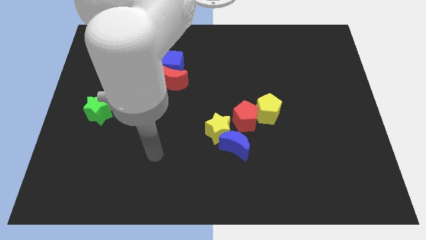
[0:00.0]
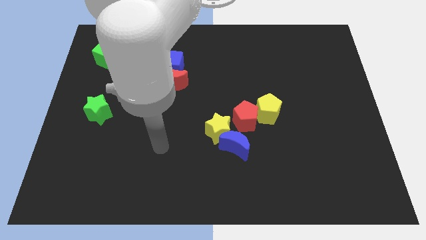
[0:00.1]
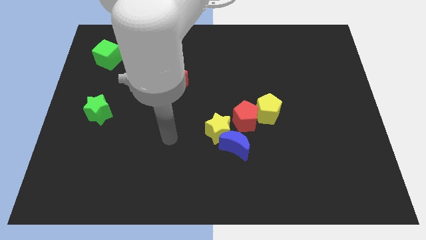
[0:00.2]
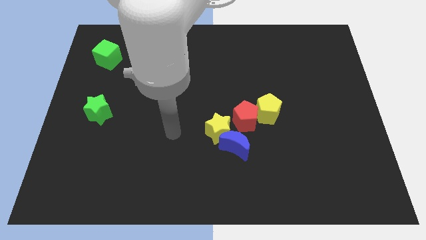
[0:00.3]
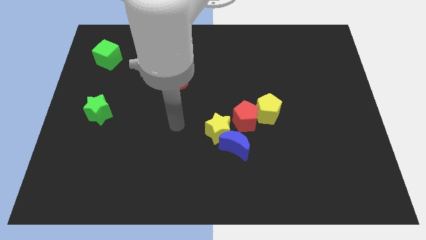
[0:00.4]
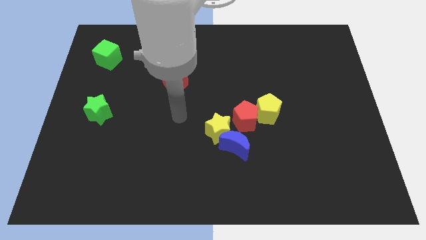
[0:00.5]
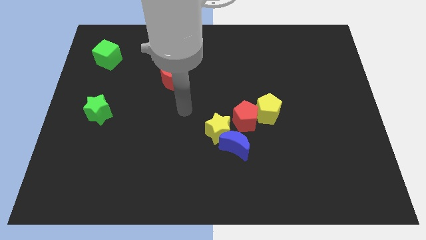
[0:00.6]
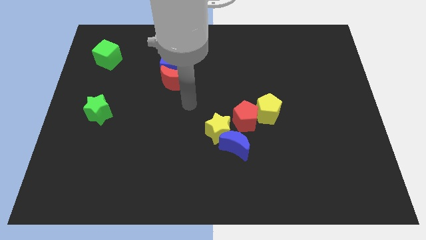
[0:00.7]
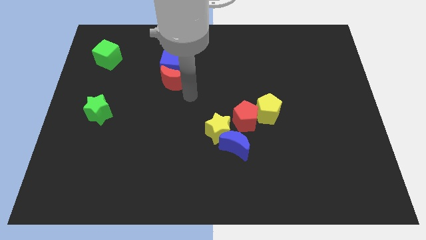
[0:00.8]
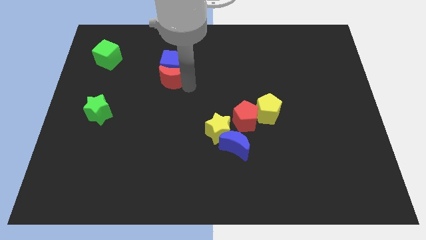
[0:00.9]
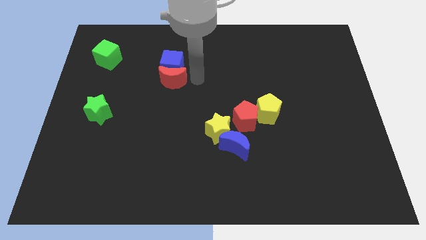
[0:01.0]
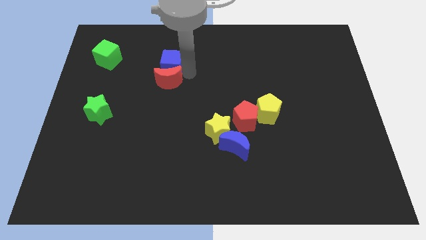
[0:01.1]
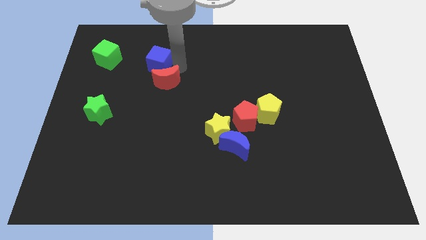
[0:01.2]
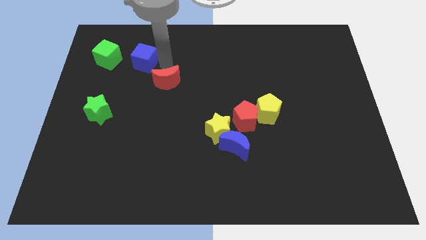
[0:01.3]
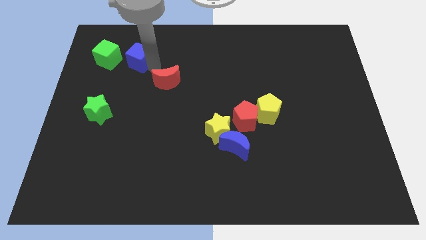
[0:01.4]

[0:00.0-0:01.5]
move the red moon away from the blue cube

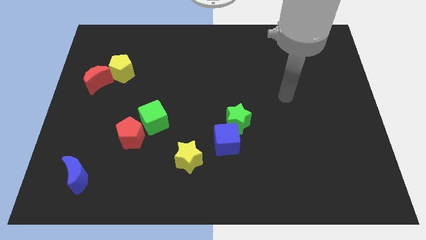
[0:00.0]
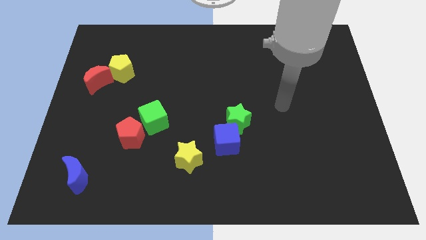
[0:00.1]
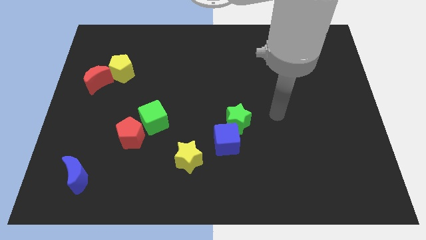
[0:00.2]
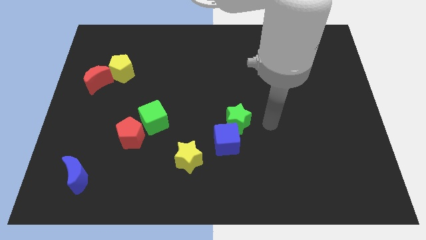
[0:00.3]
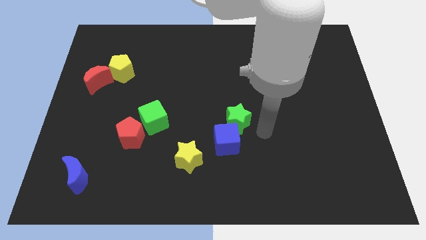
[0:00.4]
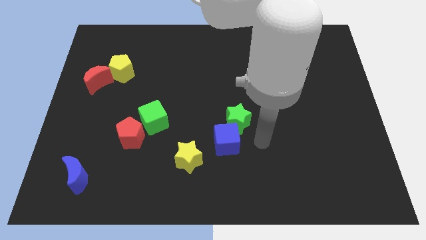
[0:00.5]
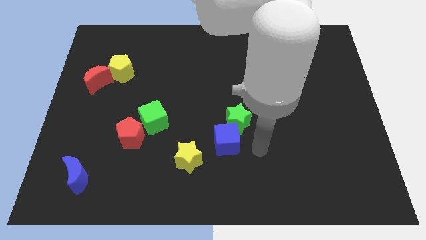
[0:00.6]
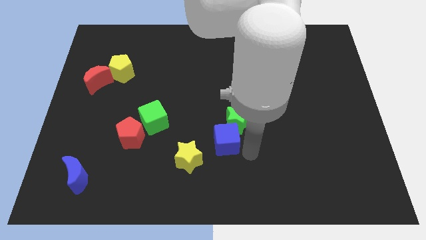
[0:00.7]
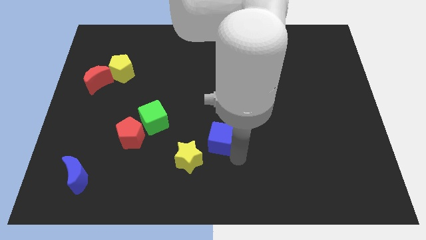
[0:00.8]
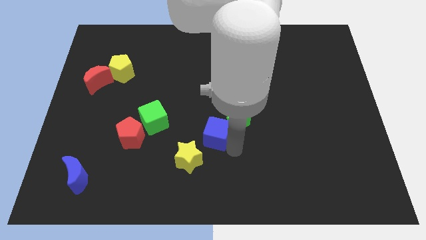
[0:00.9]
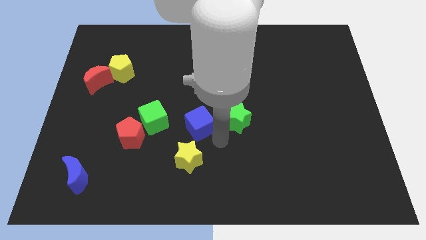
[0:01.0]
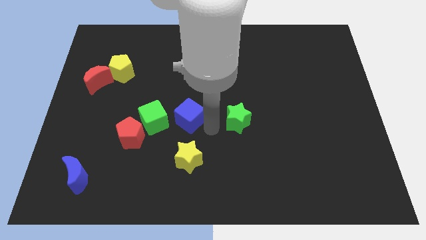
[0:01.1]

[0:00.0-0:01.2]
move the green star away from the blue cube

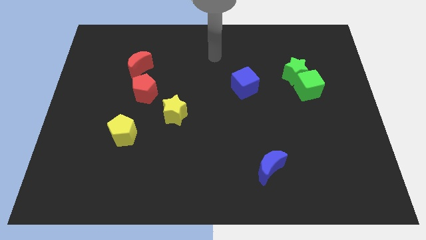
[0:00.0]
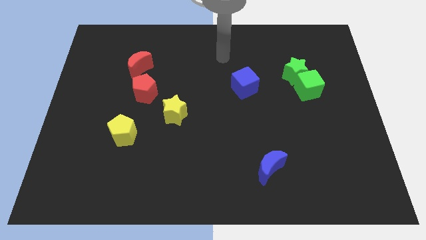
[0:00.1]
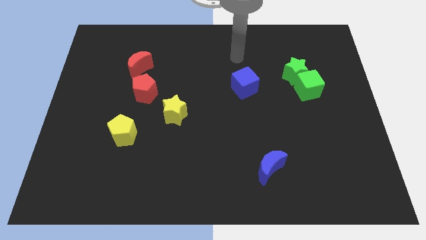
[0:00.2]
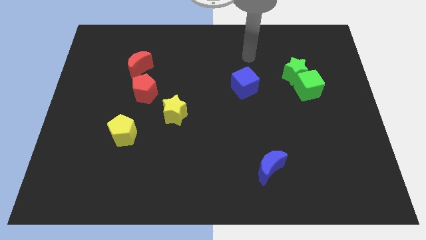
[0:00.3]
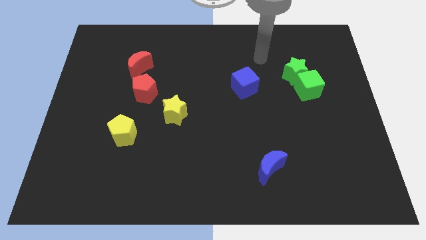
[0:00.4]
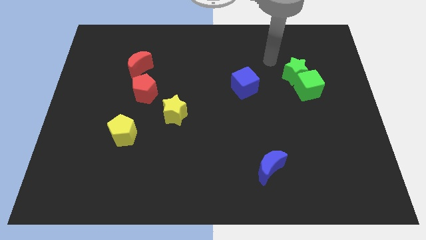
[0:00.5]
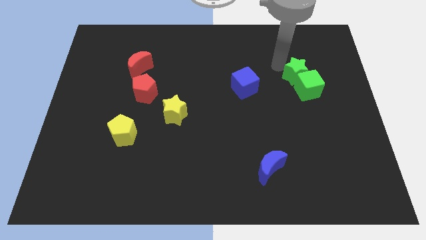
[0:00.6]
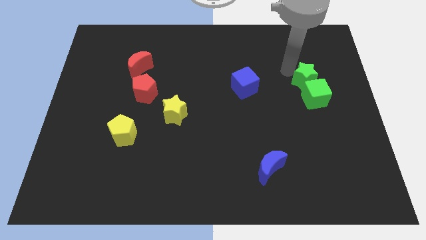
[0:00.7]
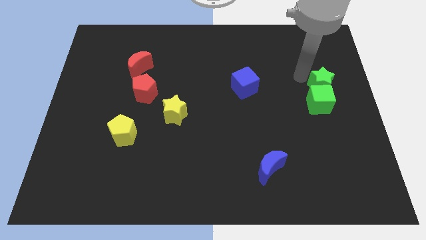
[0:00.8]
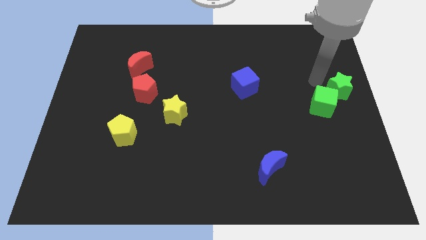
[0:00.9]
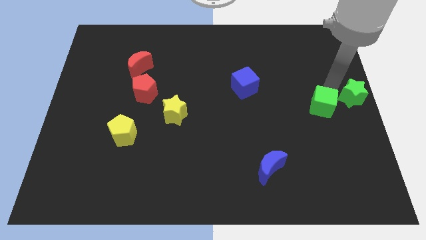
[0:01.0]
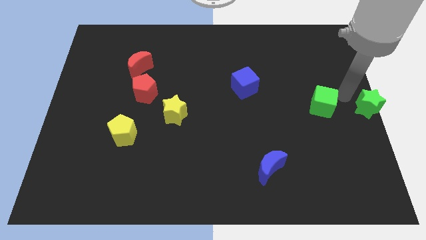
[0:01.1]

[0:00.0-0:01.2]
pull the green cube apart from the green star

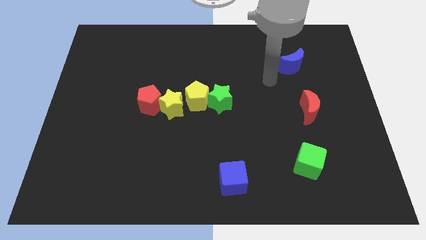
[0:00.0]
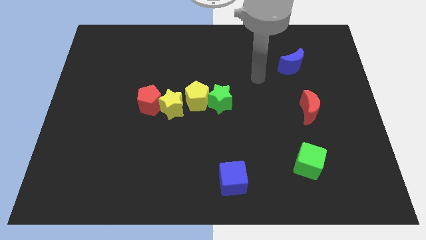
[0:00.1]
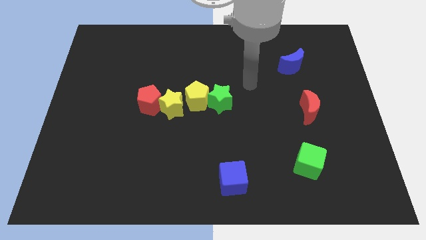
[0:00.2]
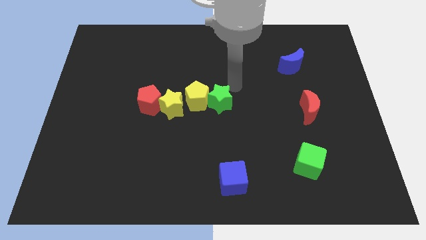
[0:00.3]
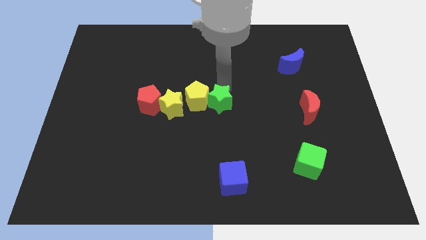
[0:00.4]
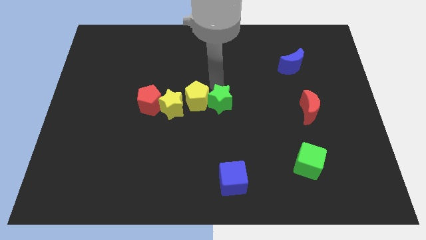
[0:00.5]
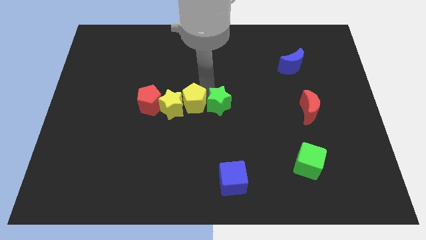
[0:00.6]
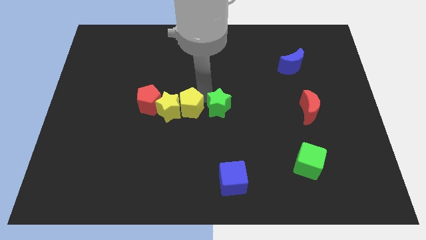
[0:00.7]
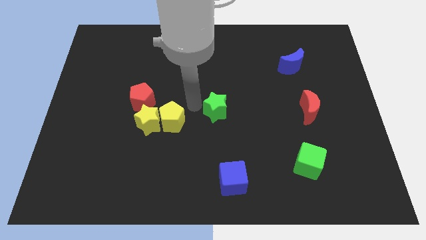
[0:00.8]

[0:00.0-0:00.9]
pull the green star apart from the yellow pentagon

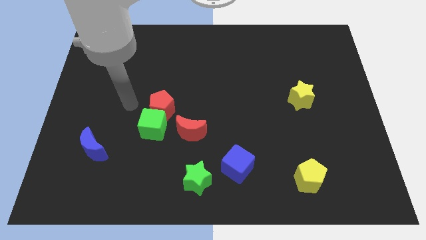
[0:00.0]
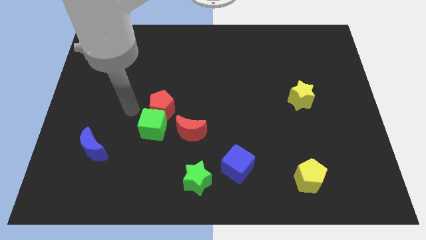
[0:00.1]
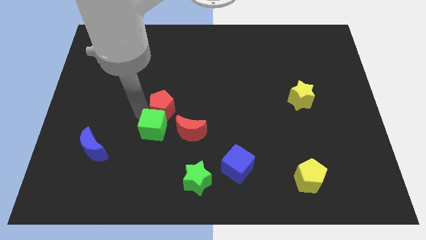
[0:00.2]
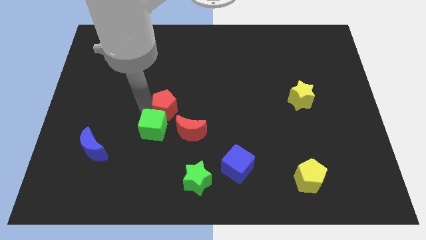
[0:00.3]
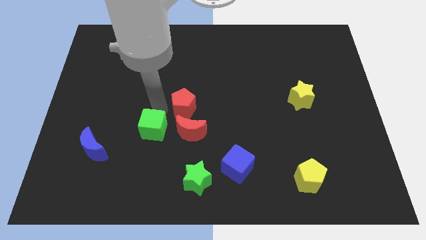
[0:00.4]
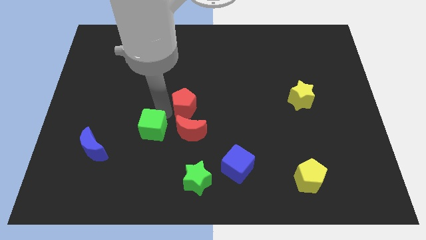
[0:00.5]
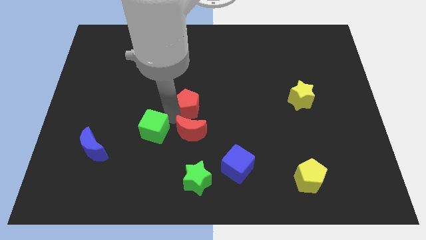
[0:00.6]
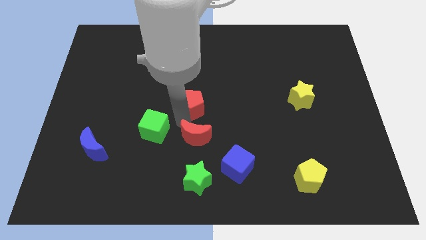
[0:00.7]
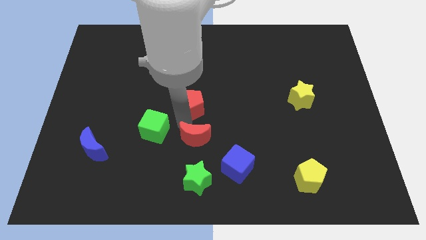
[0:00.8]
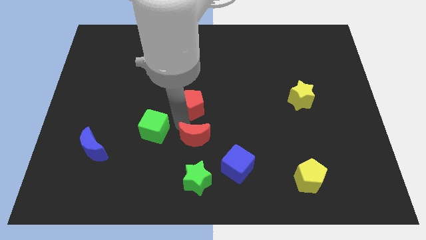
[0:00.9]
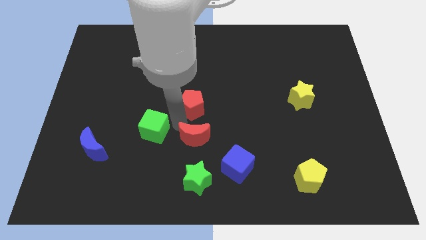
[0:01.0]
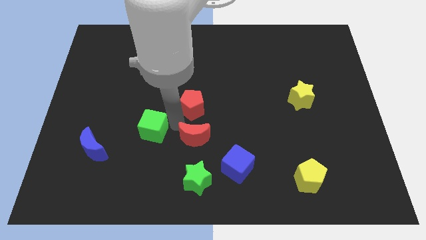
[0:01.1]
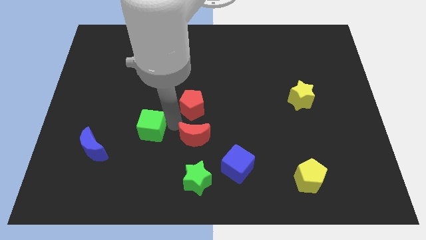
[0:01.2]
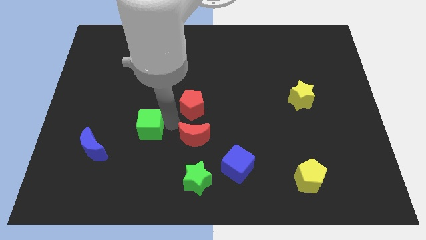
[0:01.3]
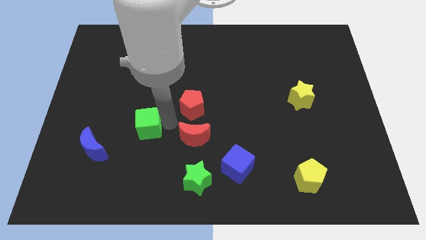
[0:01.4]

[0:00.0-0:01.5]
separate the green cube from the red pentagon and red moon

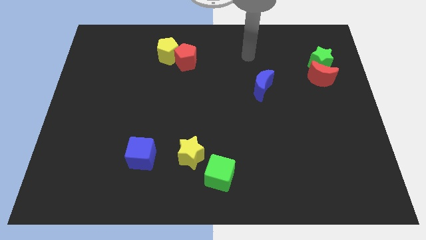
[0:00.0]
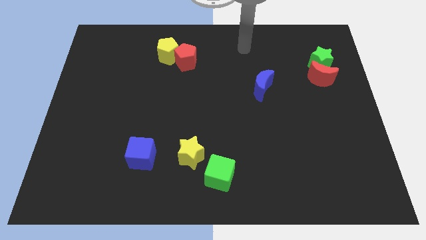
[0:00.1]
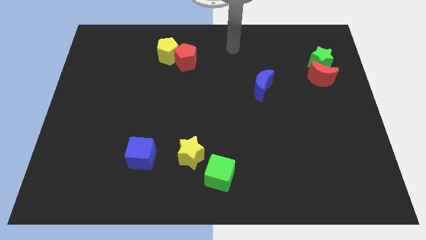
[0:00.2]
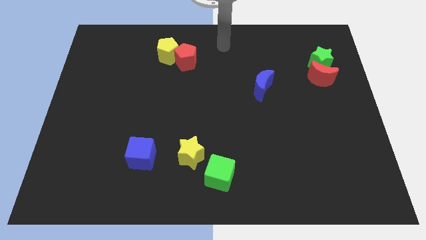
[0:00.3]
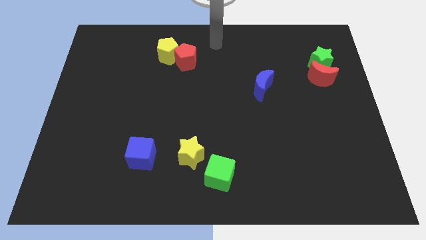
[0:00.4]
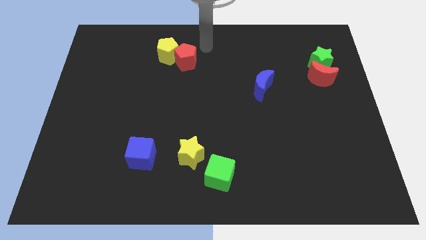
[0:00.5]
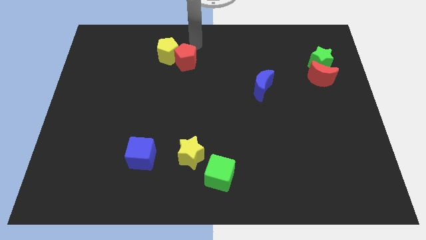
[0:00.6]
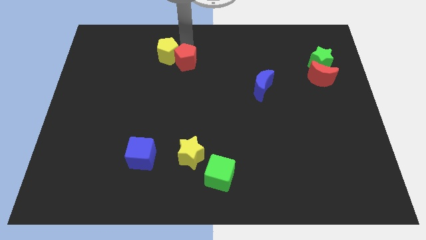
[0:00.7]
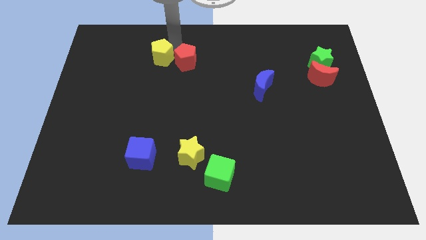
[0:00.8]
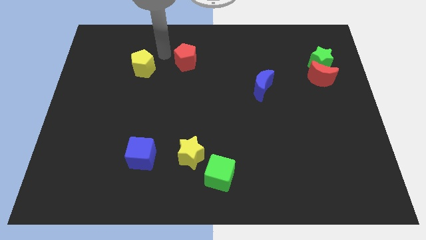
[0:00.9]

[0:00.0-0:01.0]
pull the red pentagon apart from the yellow pentagon

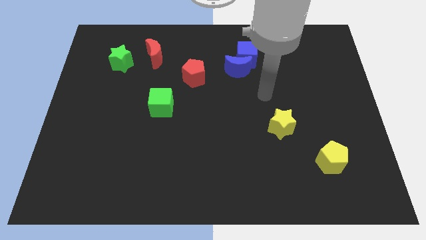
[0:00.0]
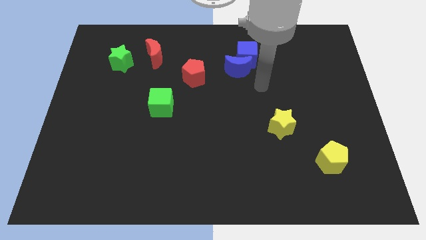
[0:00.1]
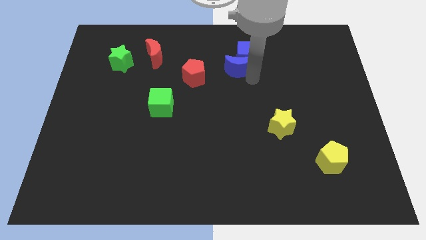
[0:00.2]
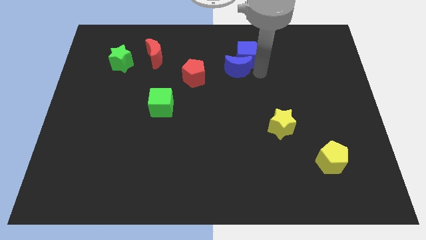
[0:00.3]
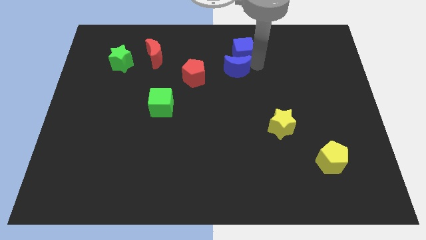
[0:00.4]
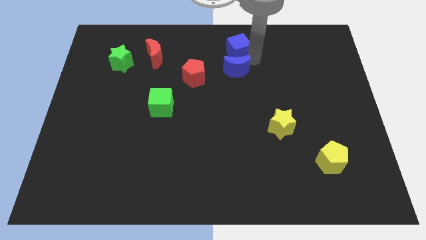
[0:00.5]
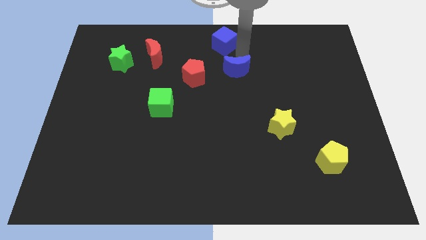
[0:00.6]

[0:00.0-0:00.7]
move the blue moon away from the blue cube

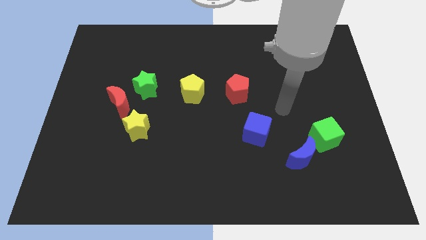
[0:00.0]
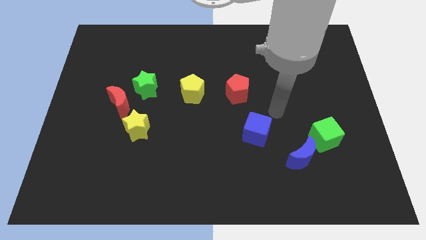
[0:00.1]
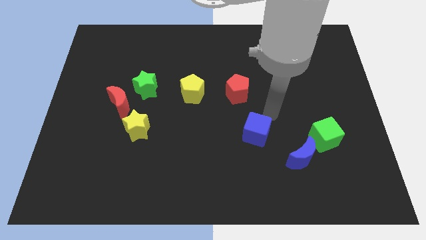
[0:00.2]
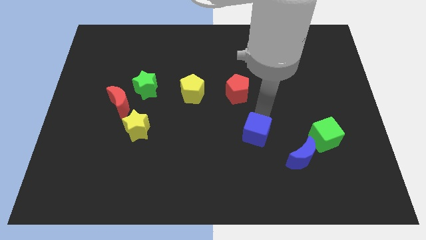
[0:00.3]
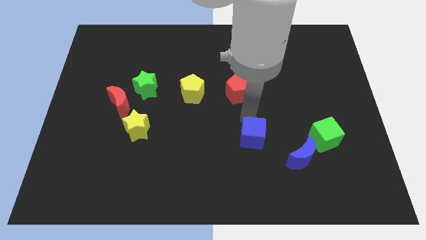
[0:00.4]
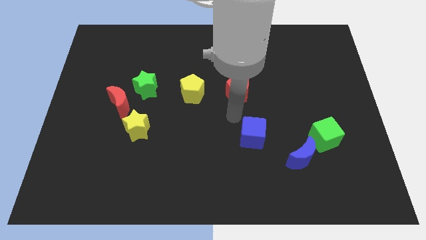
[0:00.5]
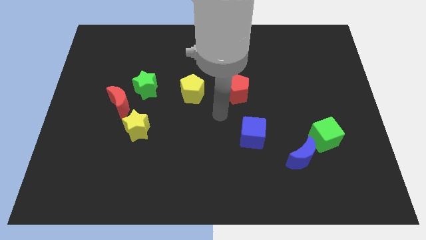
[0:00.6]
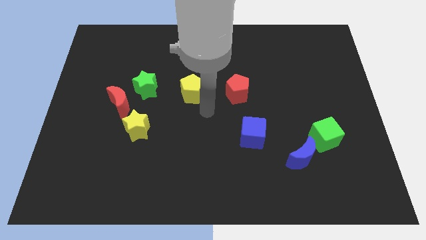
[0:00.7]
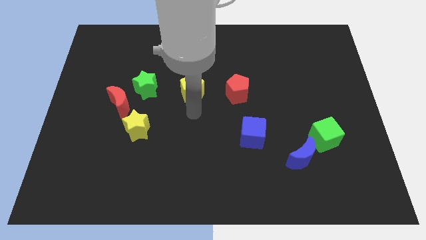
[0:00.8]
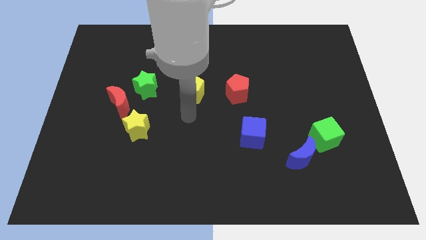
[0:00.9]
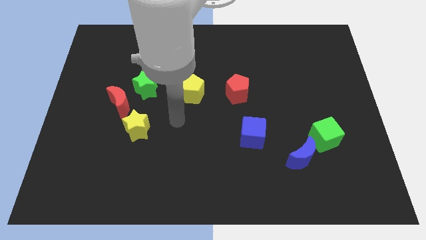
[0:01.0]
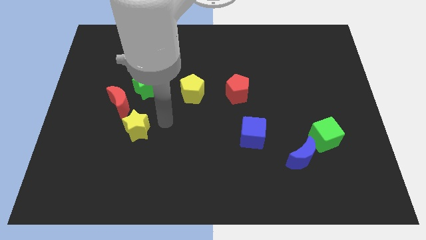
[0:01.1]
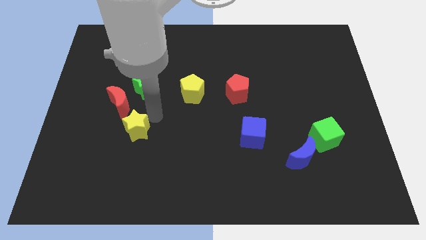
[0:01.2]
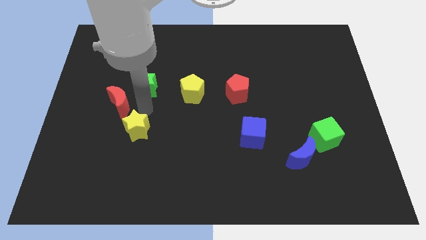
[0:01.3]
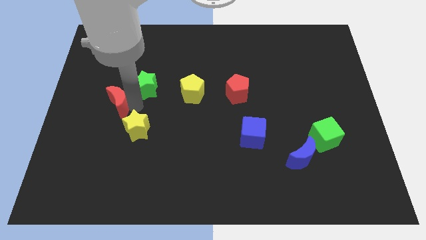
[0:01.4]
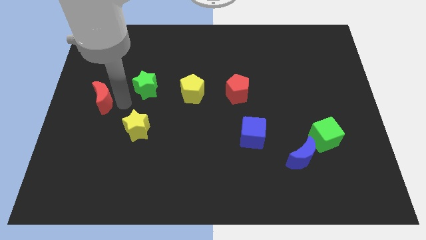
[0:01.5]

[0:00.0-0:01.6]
separate the green star from the red moon
